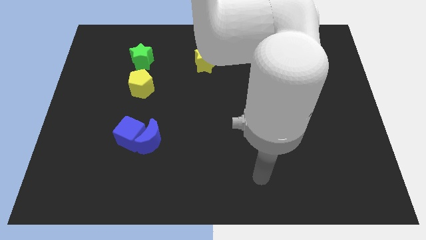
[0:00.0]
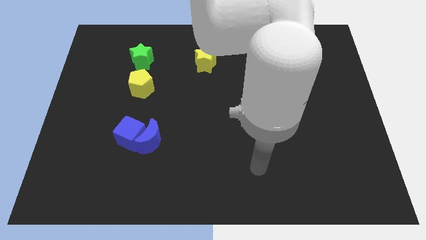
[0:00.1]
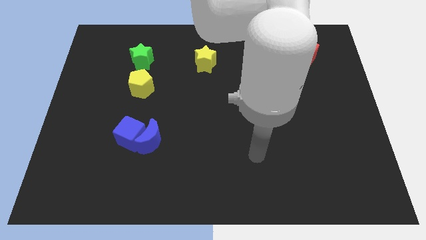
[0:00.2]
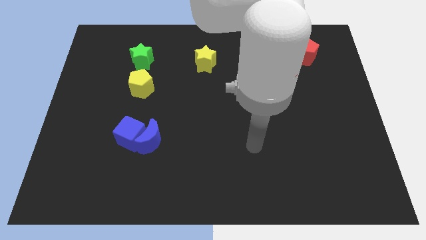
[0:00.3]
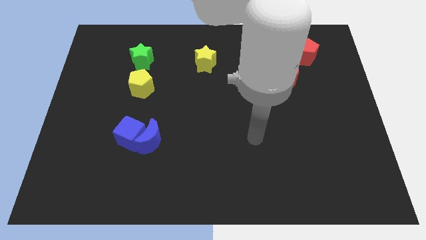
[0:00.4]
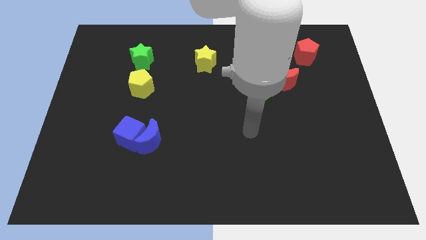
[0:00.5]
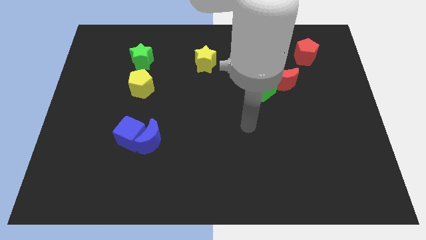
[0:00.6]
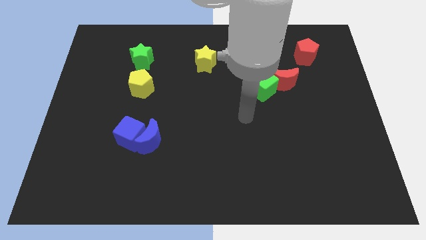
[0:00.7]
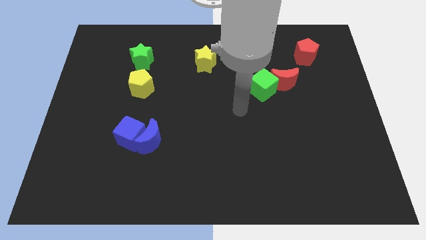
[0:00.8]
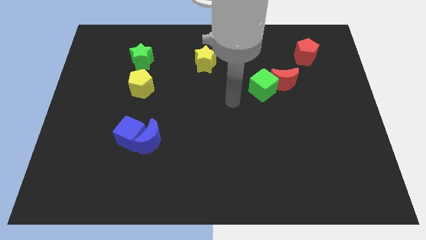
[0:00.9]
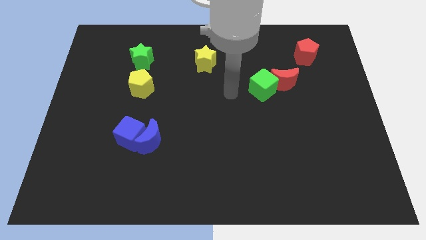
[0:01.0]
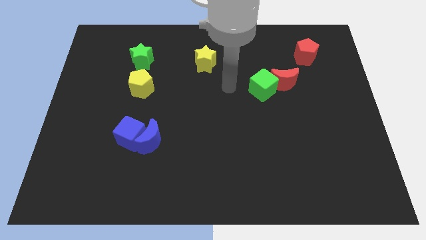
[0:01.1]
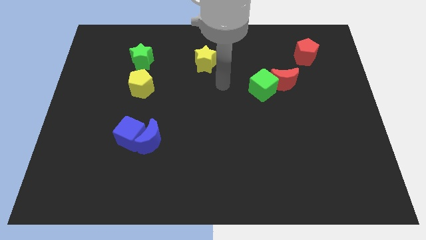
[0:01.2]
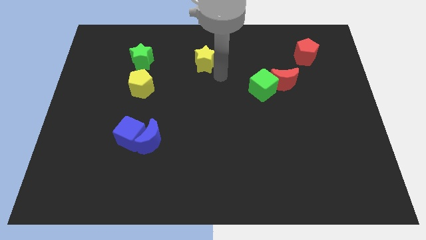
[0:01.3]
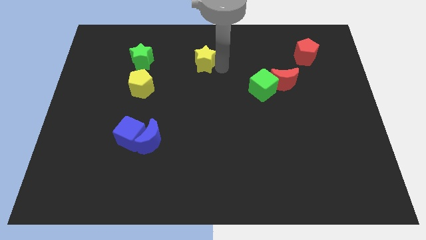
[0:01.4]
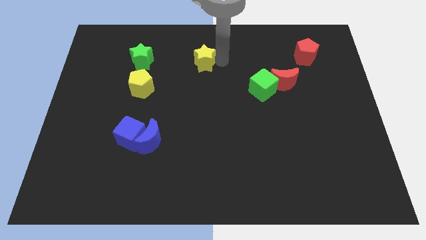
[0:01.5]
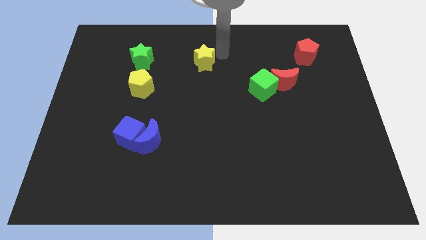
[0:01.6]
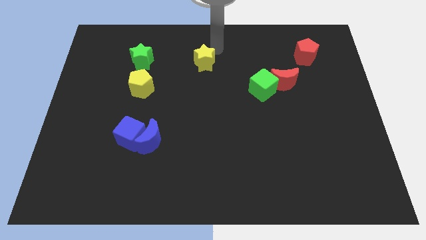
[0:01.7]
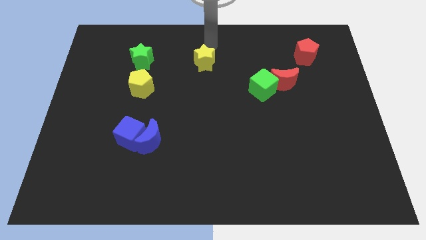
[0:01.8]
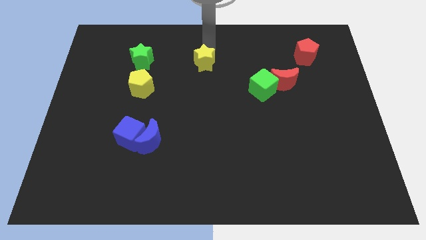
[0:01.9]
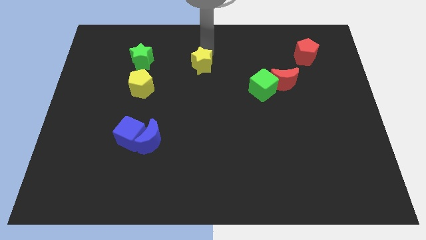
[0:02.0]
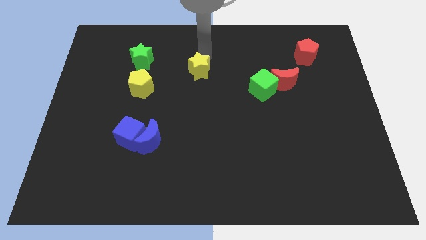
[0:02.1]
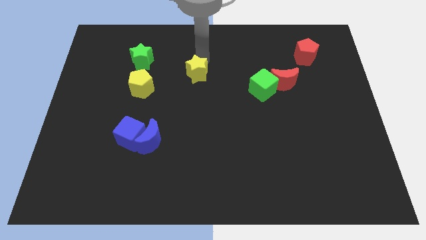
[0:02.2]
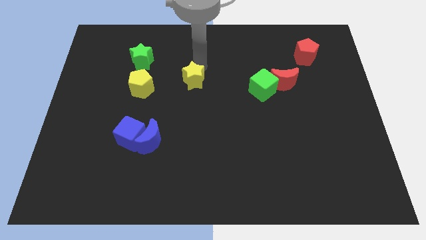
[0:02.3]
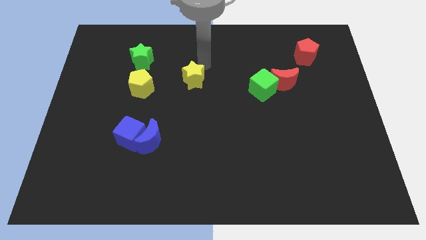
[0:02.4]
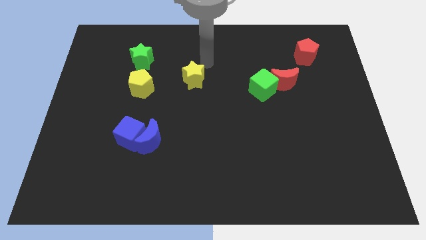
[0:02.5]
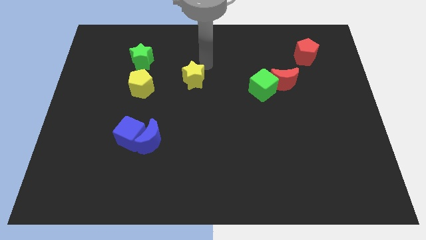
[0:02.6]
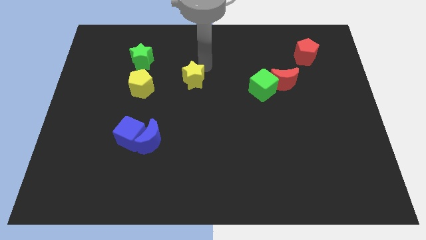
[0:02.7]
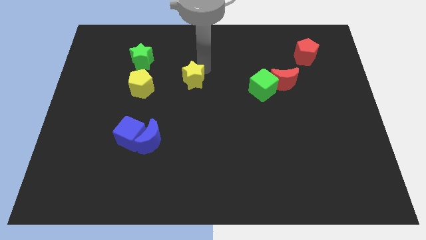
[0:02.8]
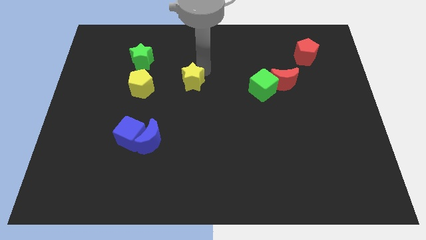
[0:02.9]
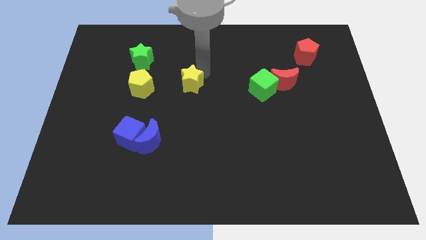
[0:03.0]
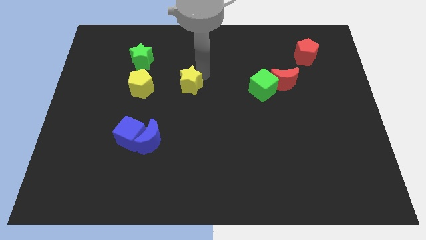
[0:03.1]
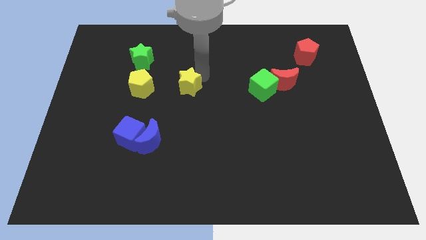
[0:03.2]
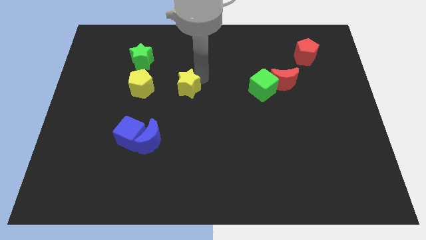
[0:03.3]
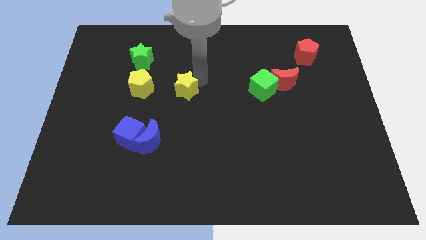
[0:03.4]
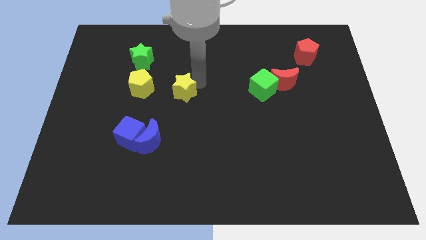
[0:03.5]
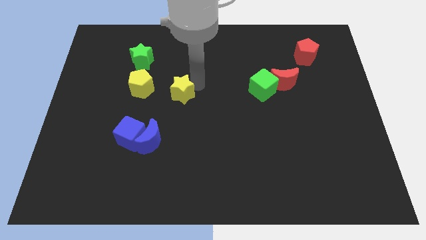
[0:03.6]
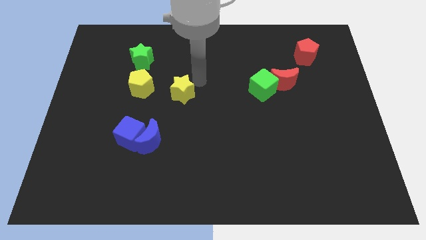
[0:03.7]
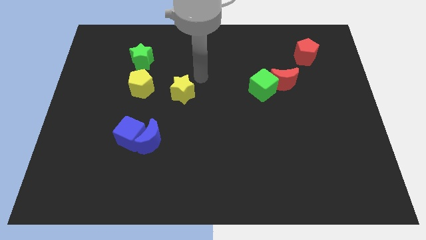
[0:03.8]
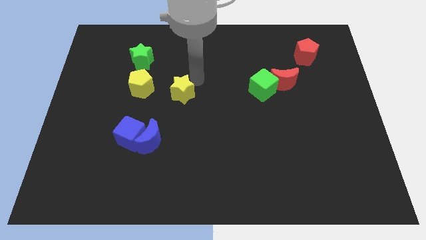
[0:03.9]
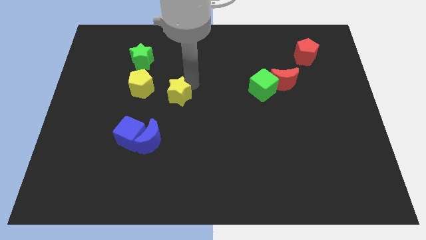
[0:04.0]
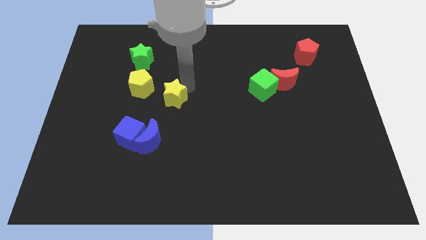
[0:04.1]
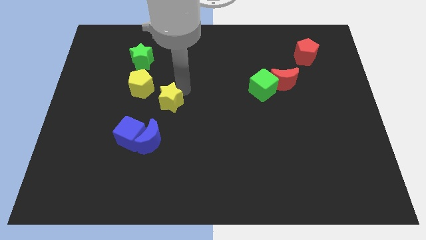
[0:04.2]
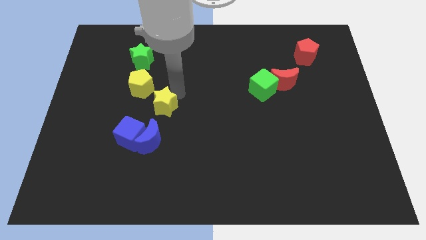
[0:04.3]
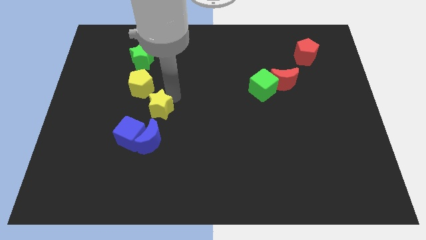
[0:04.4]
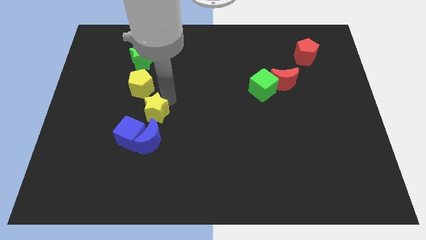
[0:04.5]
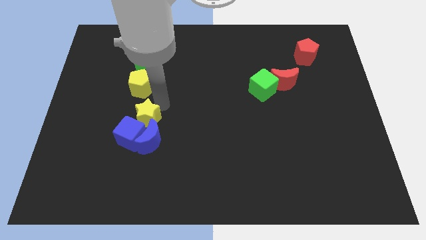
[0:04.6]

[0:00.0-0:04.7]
put the yellow star towards the blue cube

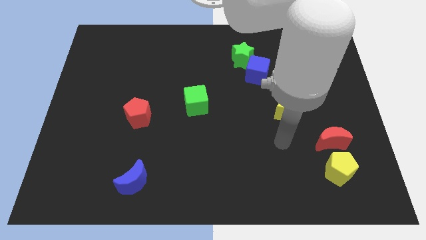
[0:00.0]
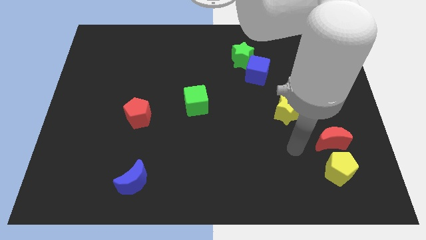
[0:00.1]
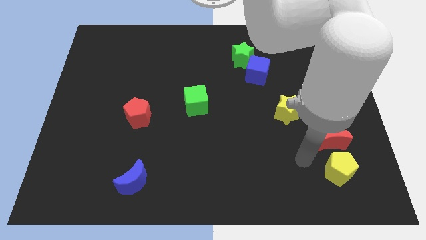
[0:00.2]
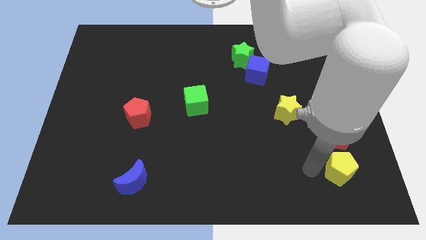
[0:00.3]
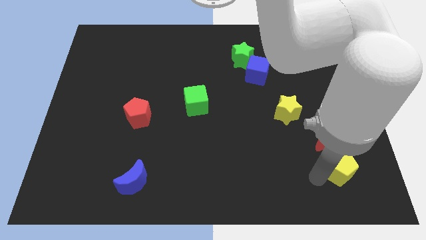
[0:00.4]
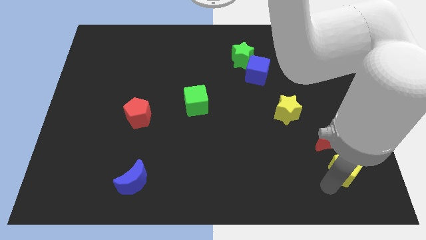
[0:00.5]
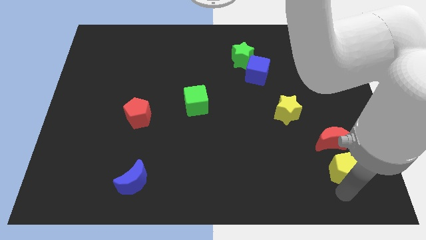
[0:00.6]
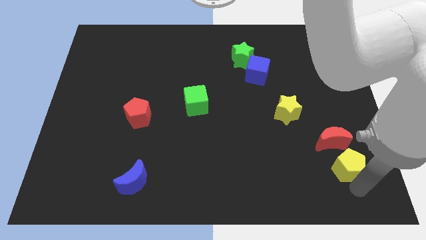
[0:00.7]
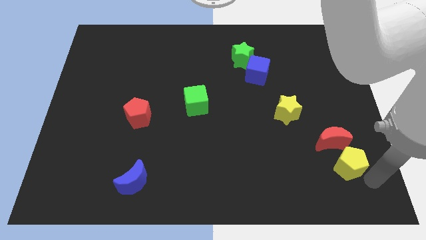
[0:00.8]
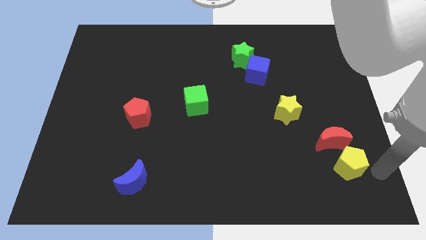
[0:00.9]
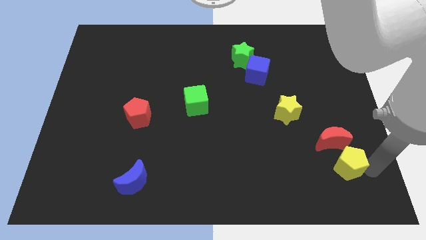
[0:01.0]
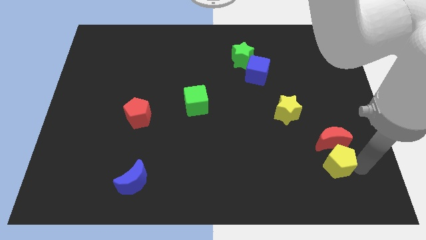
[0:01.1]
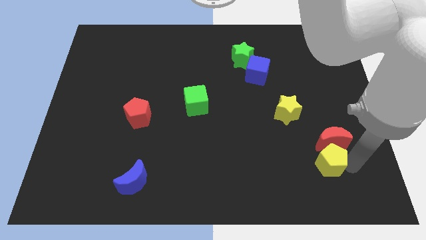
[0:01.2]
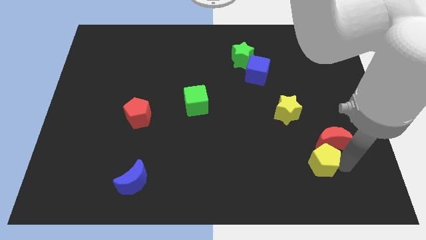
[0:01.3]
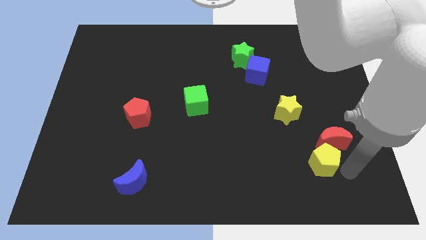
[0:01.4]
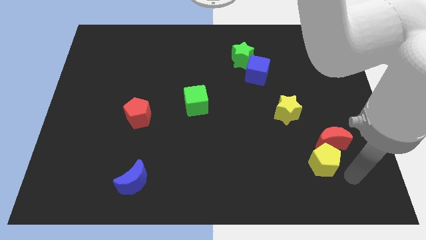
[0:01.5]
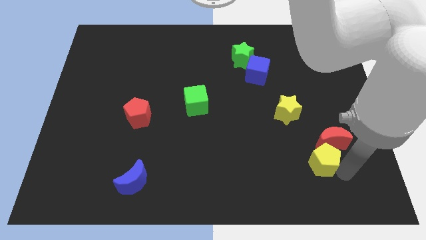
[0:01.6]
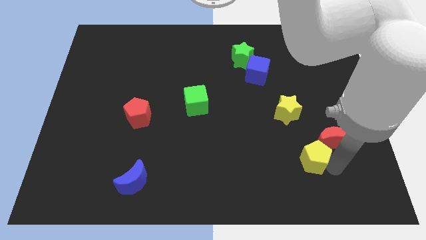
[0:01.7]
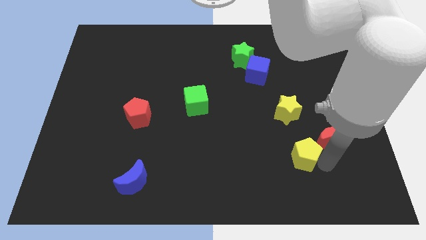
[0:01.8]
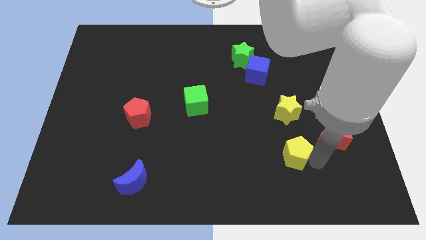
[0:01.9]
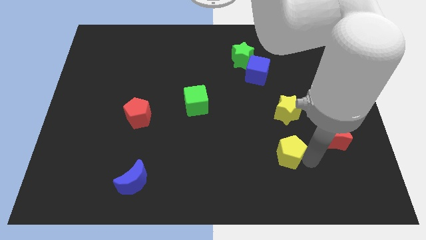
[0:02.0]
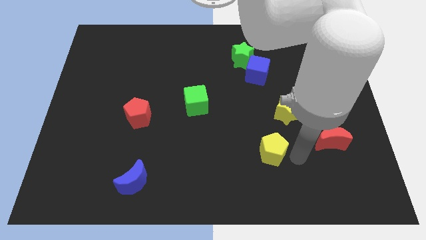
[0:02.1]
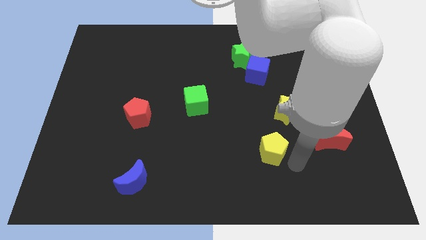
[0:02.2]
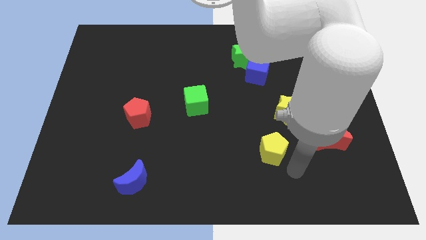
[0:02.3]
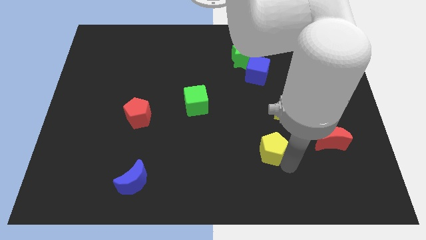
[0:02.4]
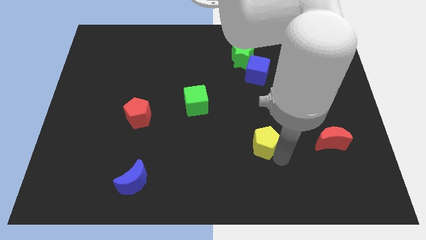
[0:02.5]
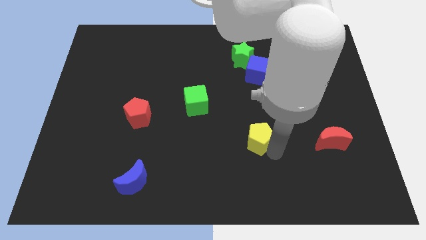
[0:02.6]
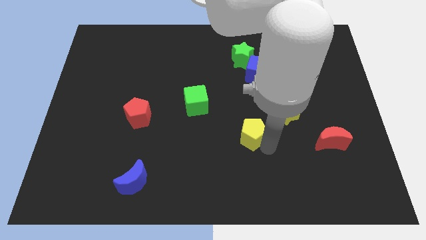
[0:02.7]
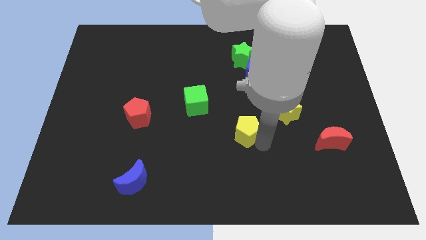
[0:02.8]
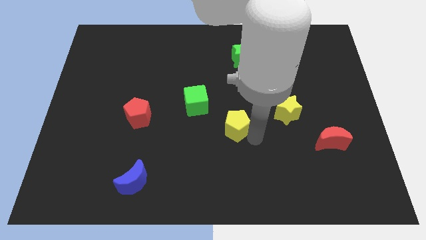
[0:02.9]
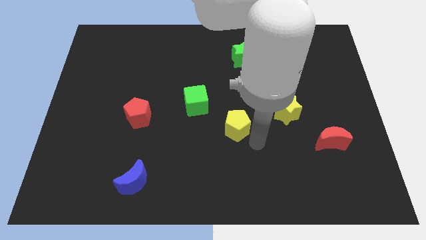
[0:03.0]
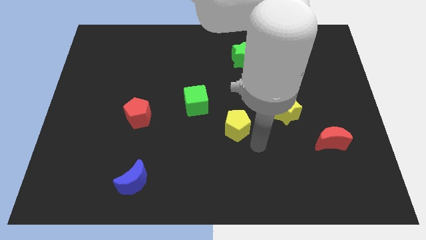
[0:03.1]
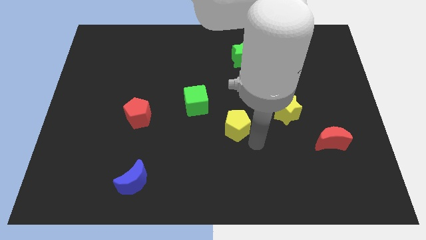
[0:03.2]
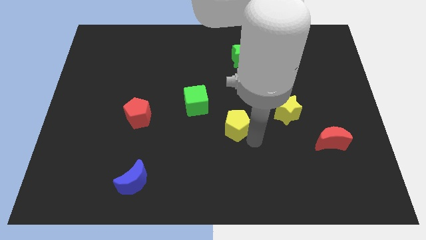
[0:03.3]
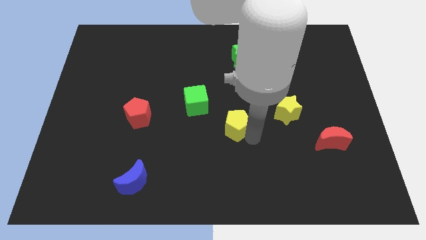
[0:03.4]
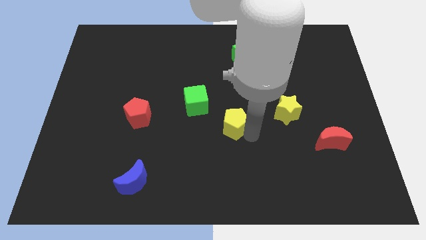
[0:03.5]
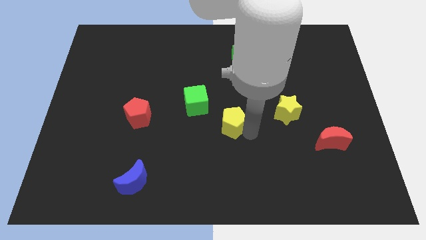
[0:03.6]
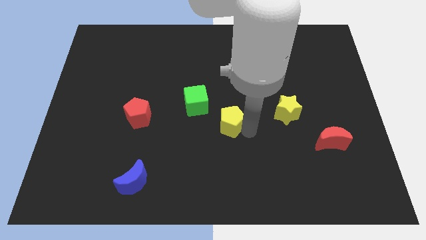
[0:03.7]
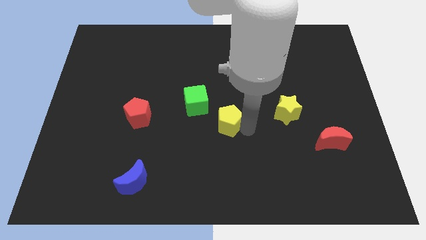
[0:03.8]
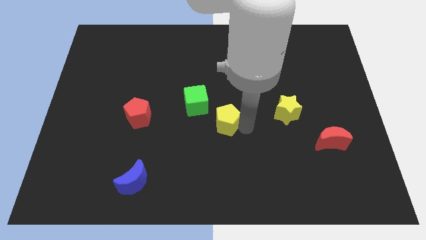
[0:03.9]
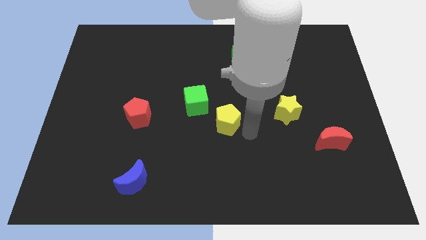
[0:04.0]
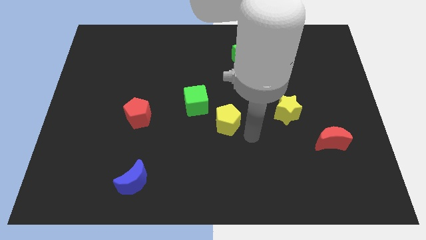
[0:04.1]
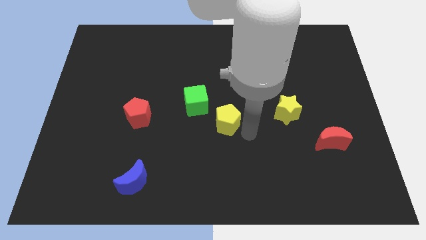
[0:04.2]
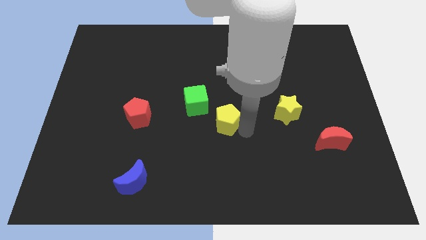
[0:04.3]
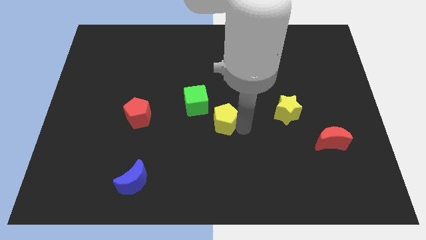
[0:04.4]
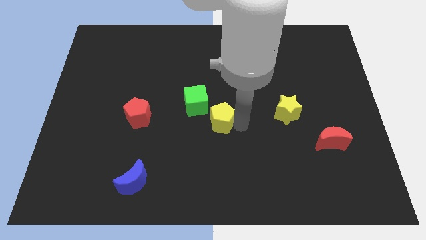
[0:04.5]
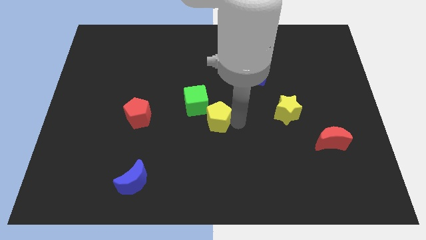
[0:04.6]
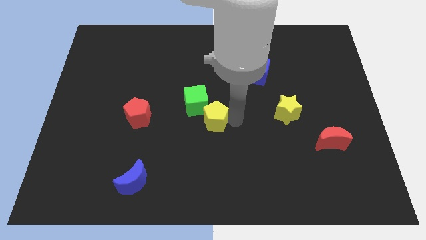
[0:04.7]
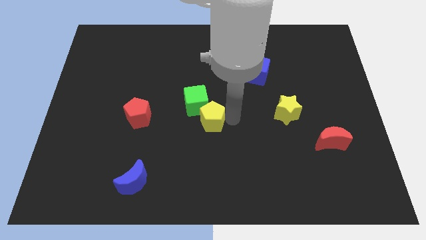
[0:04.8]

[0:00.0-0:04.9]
push the yellow pentagon to the green cube
